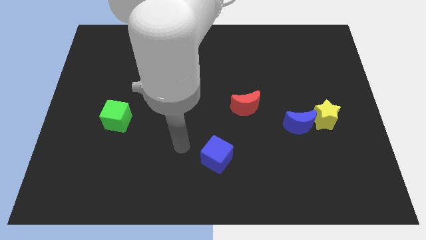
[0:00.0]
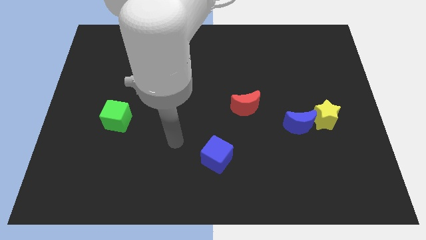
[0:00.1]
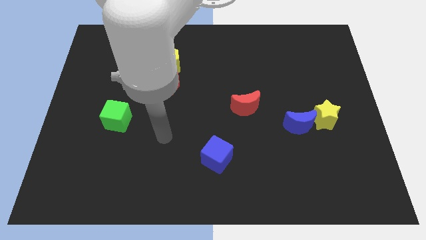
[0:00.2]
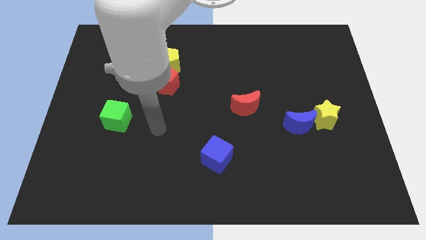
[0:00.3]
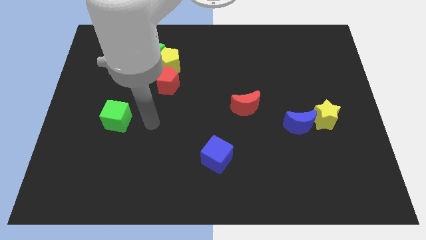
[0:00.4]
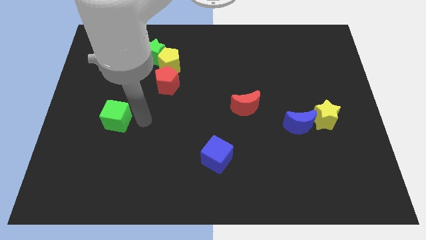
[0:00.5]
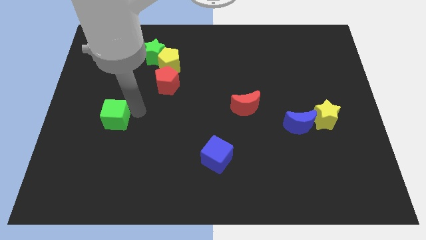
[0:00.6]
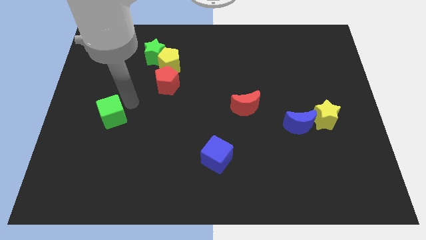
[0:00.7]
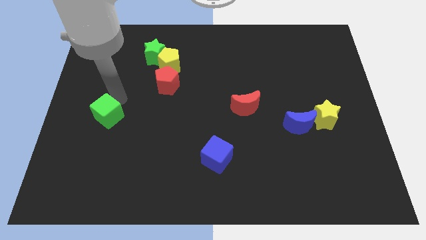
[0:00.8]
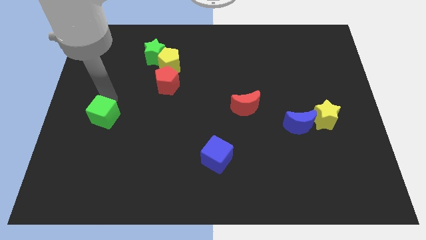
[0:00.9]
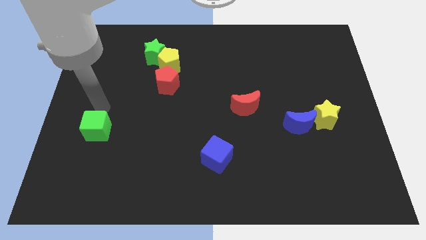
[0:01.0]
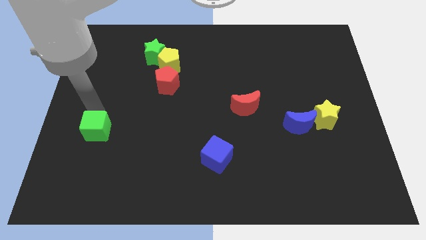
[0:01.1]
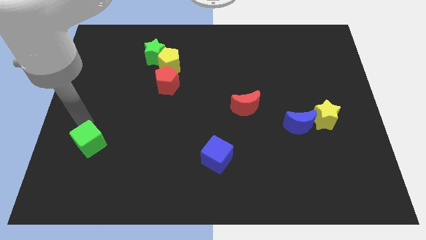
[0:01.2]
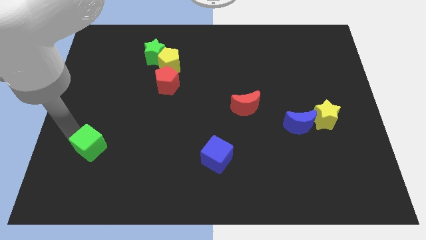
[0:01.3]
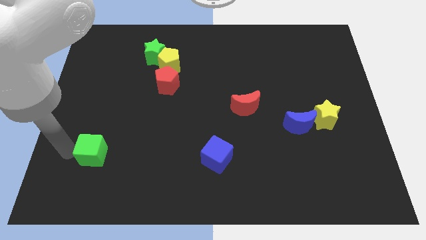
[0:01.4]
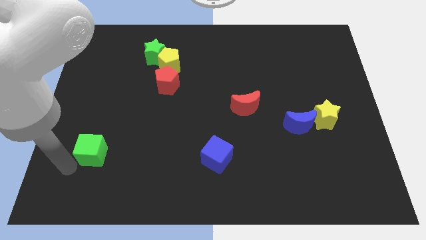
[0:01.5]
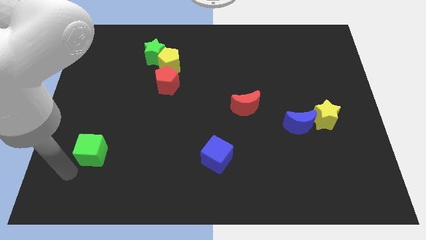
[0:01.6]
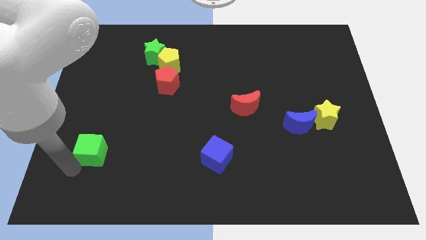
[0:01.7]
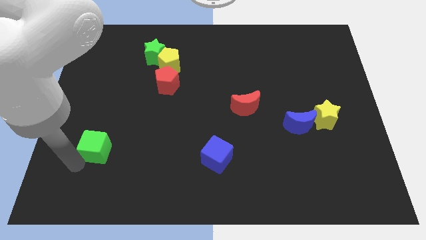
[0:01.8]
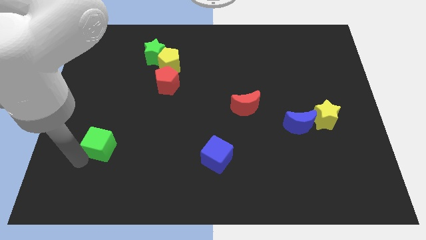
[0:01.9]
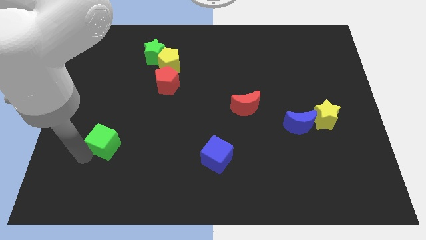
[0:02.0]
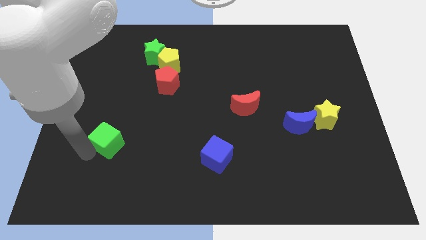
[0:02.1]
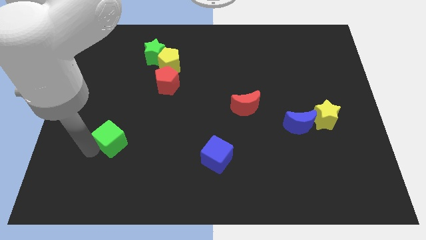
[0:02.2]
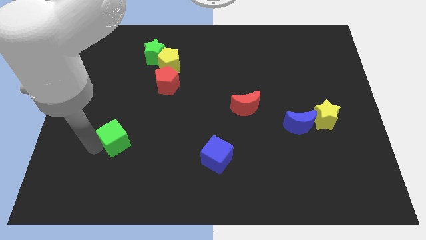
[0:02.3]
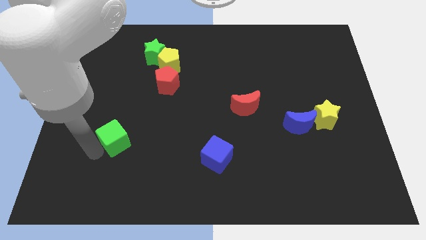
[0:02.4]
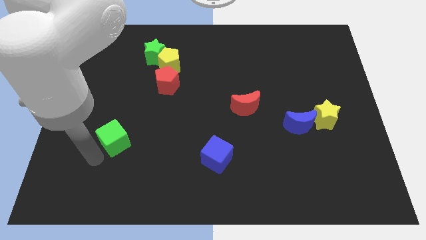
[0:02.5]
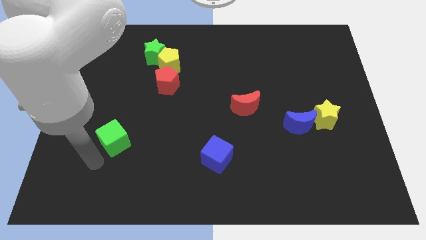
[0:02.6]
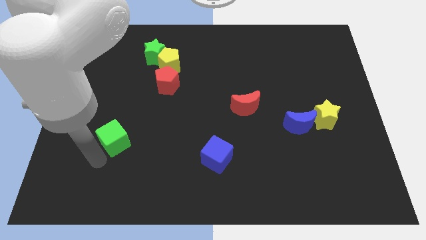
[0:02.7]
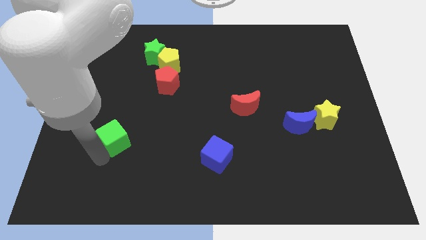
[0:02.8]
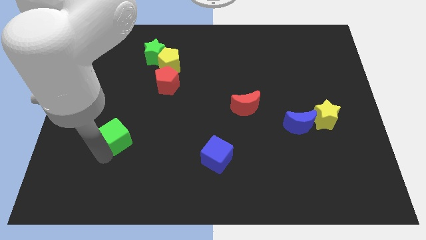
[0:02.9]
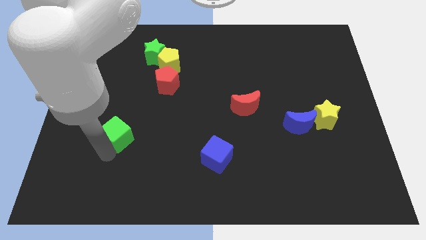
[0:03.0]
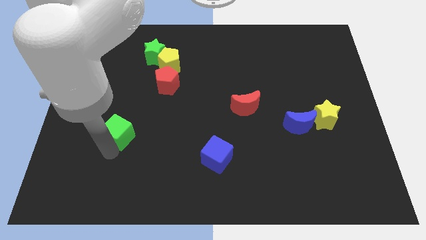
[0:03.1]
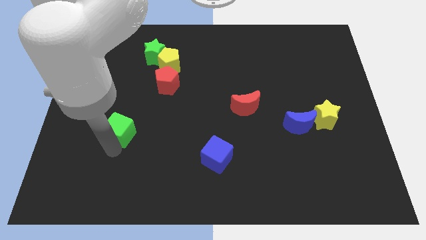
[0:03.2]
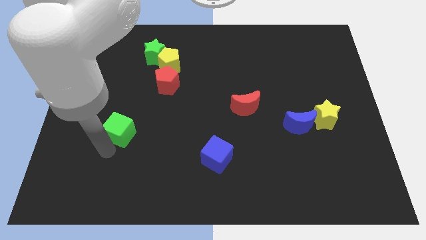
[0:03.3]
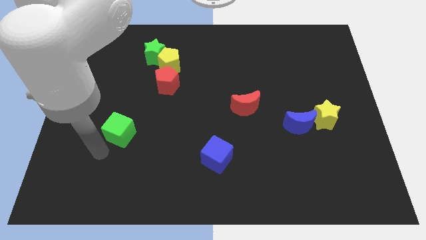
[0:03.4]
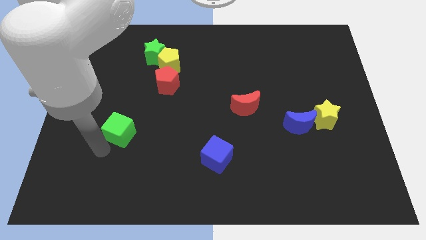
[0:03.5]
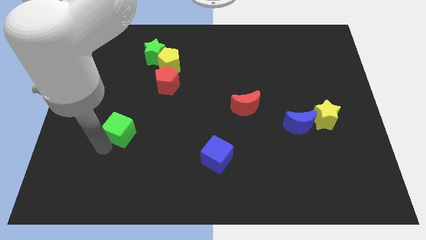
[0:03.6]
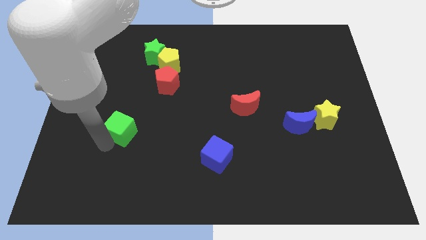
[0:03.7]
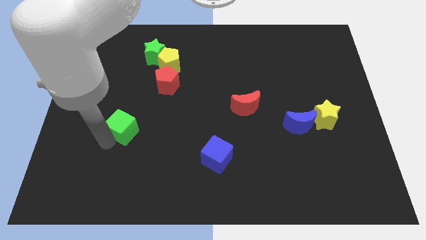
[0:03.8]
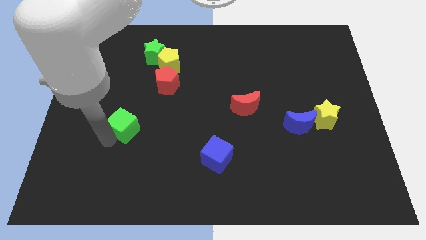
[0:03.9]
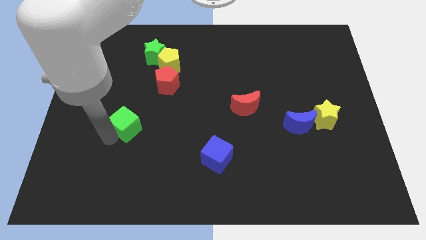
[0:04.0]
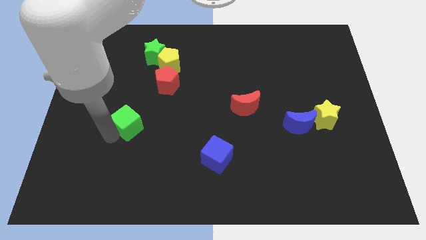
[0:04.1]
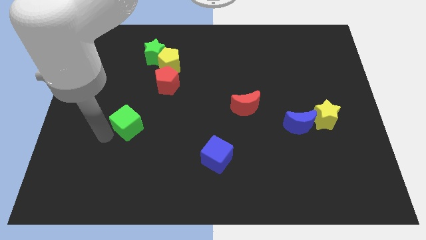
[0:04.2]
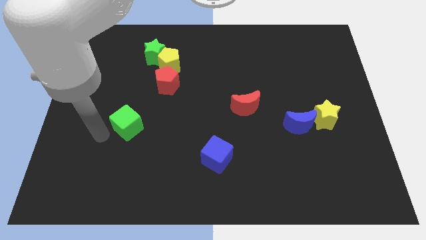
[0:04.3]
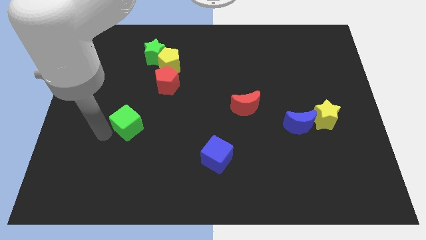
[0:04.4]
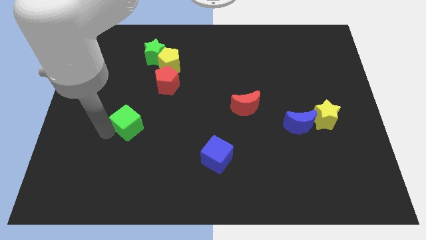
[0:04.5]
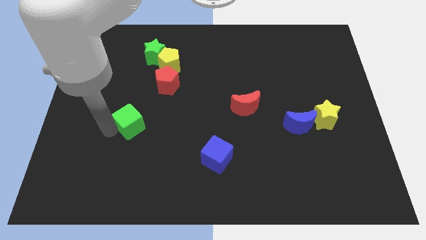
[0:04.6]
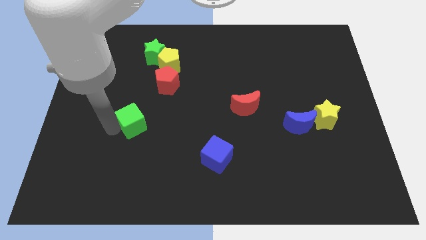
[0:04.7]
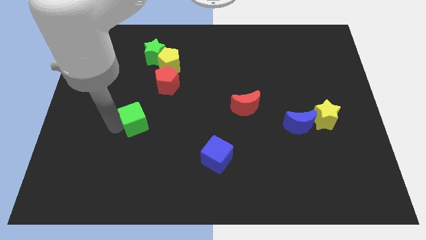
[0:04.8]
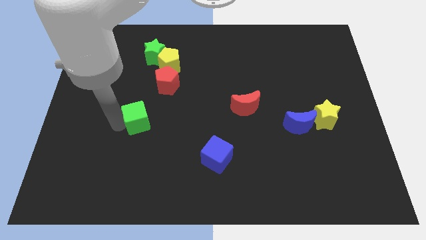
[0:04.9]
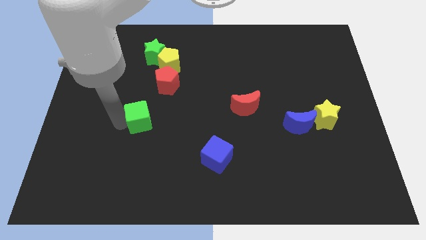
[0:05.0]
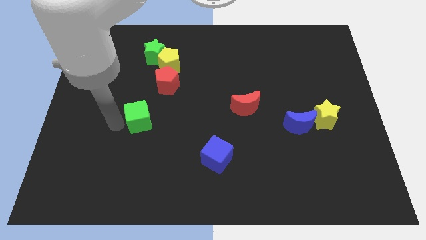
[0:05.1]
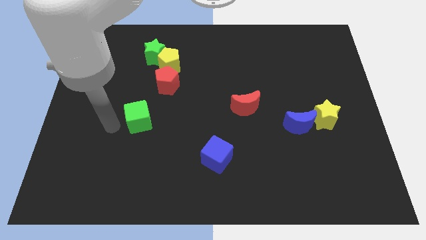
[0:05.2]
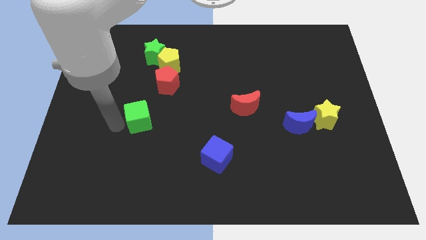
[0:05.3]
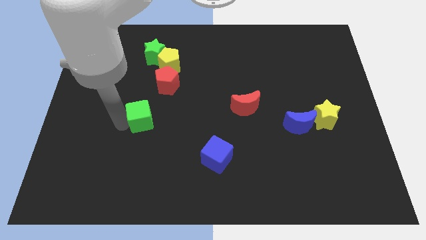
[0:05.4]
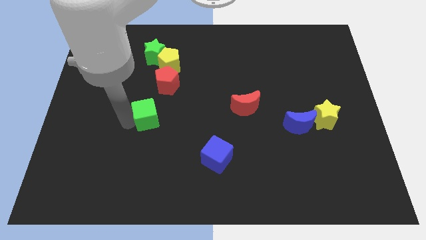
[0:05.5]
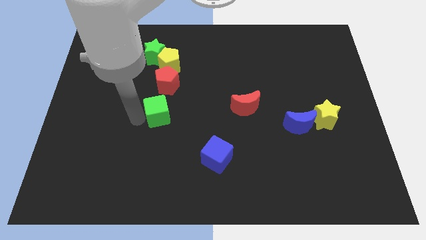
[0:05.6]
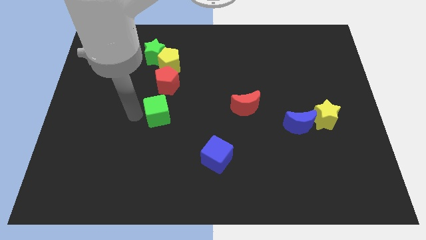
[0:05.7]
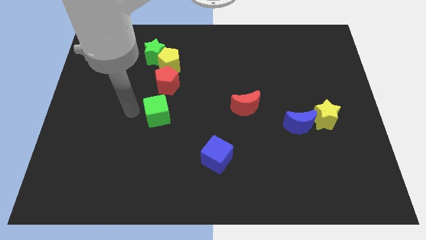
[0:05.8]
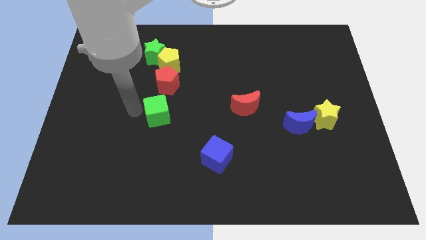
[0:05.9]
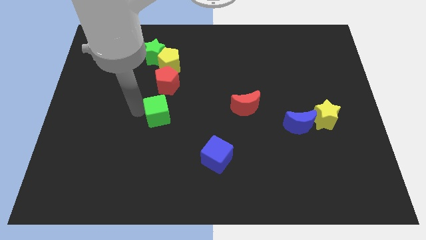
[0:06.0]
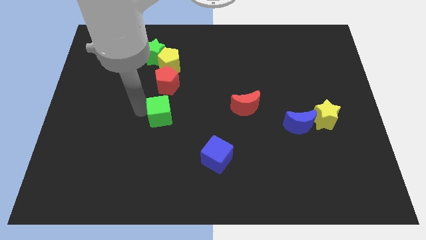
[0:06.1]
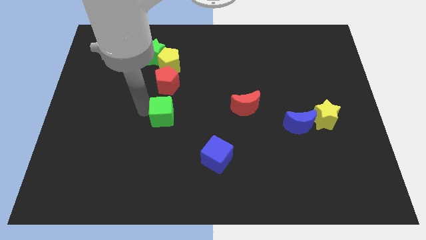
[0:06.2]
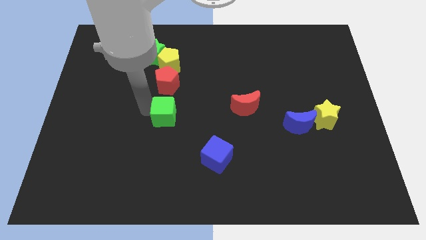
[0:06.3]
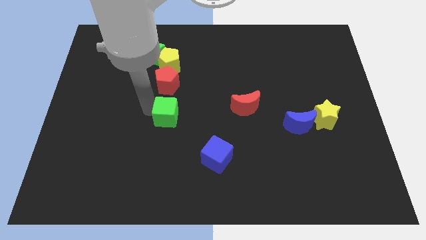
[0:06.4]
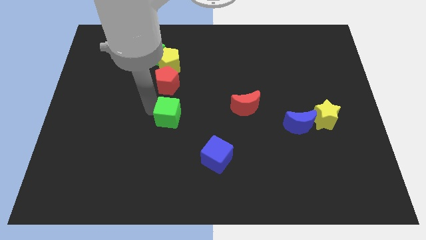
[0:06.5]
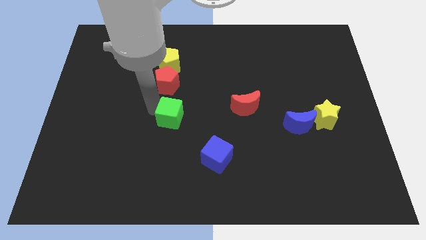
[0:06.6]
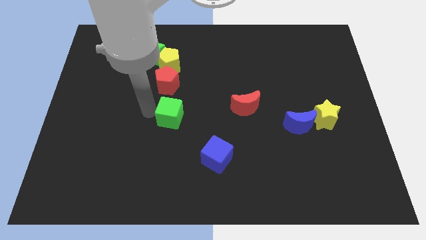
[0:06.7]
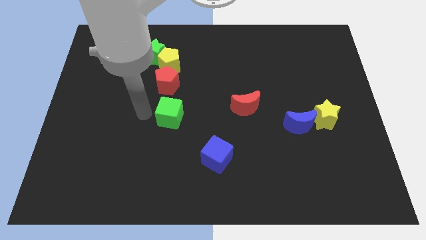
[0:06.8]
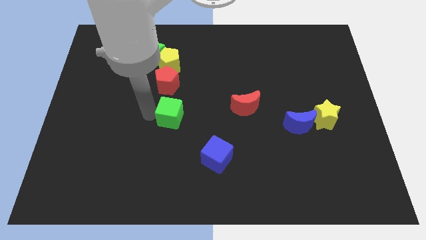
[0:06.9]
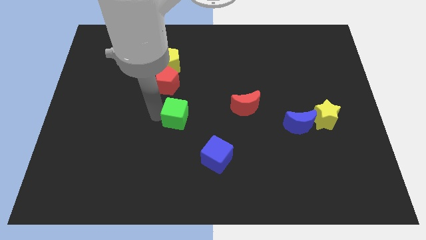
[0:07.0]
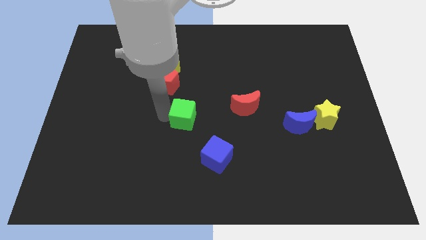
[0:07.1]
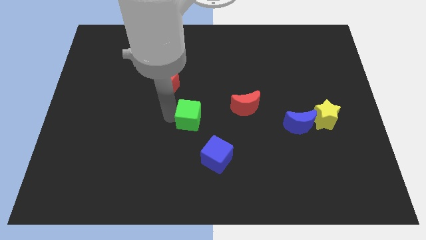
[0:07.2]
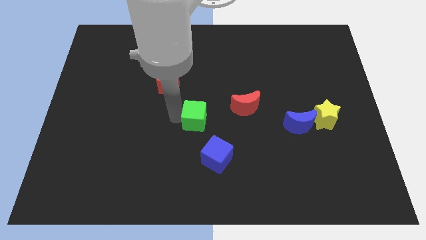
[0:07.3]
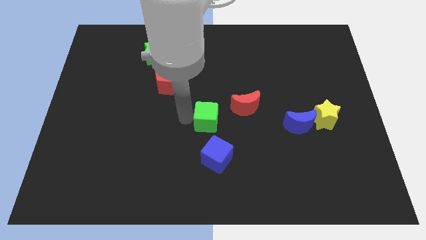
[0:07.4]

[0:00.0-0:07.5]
move the green cube to the right

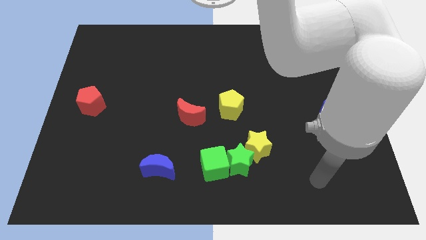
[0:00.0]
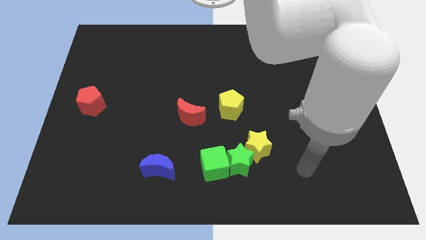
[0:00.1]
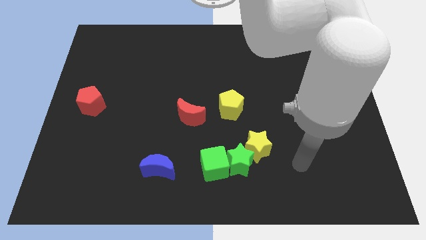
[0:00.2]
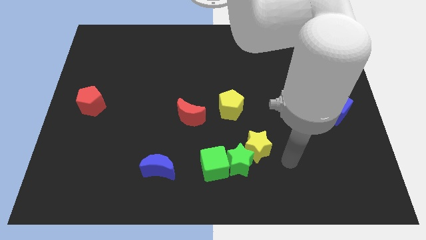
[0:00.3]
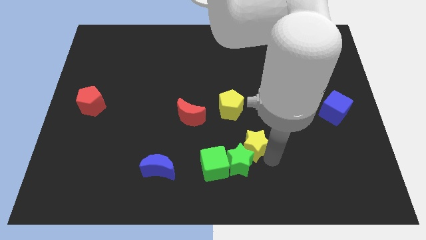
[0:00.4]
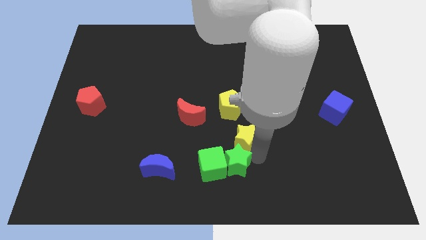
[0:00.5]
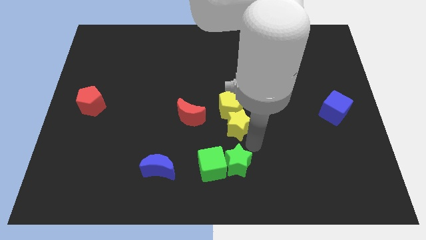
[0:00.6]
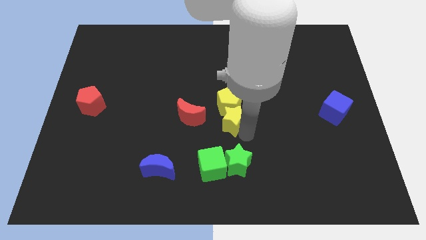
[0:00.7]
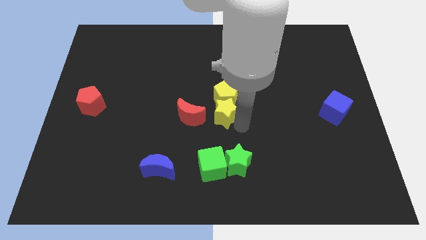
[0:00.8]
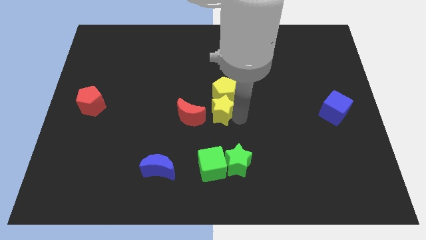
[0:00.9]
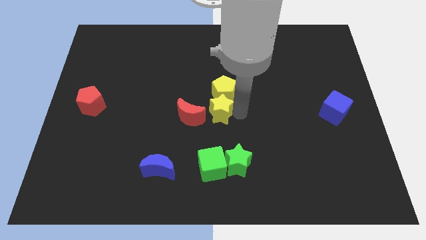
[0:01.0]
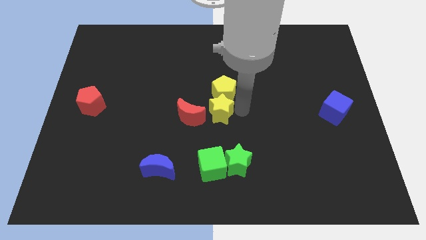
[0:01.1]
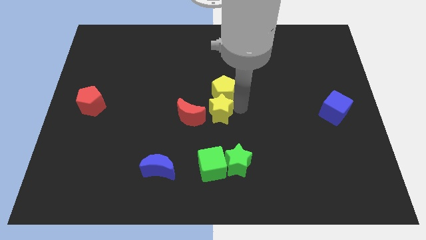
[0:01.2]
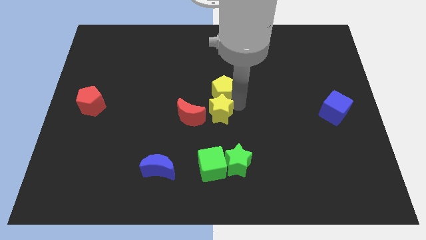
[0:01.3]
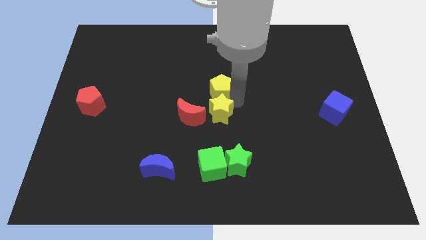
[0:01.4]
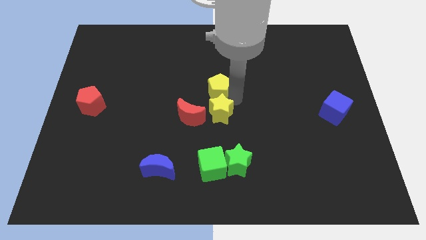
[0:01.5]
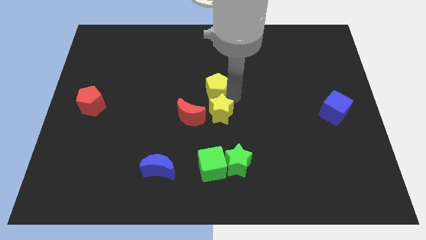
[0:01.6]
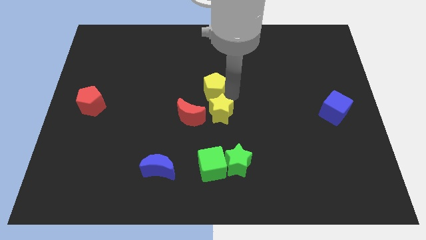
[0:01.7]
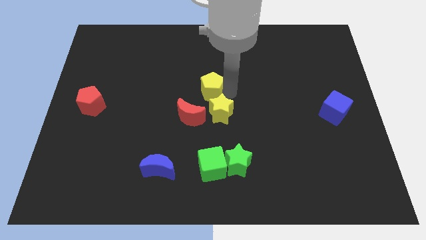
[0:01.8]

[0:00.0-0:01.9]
slightly slide the yellow pentagon up and then to the left
